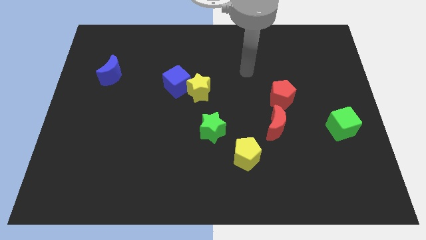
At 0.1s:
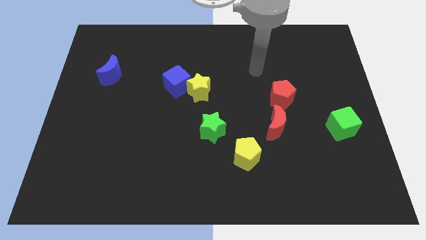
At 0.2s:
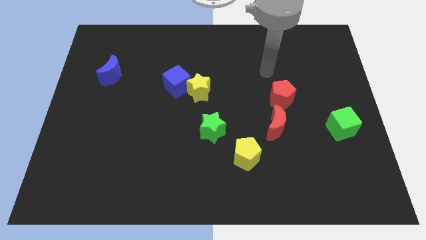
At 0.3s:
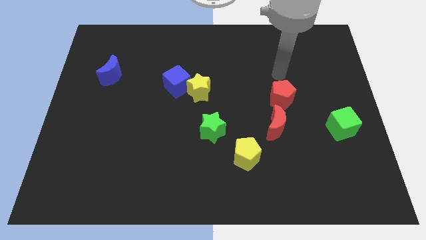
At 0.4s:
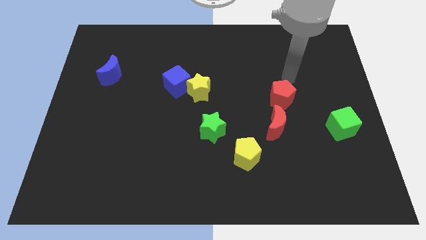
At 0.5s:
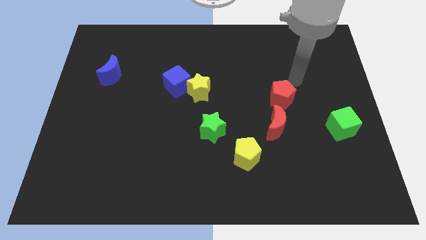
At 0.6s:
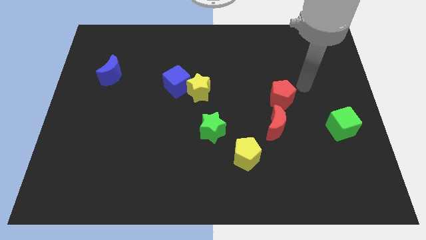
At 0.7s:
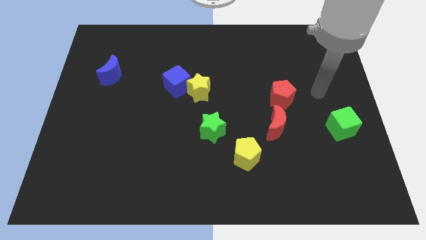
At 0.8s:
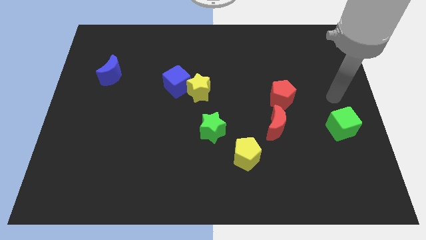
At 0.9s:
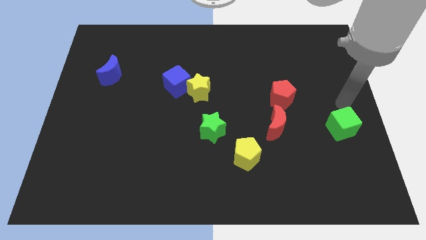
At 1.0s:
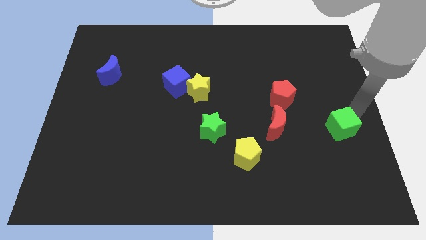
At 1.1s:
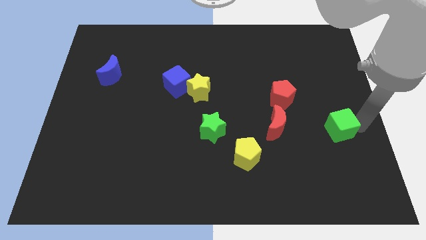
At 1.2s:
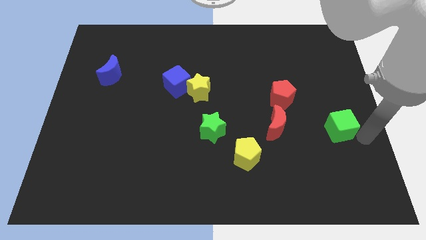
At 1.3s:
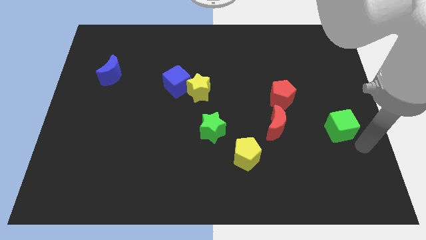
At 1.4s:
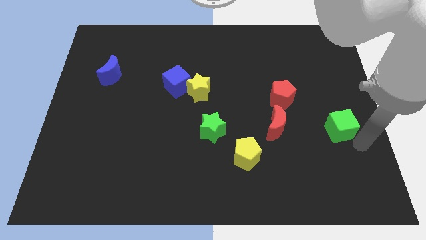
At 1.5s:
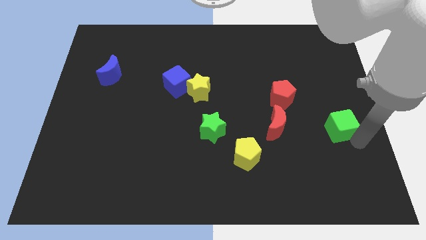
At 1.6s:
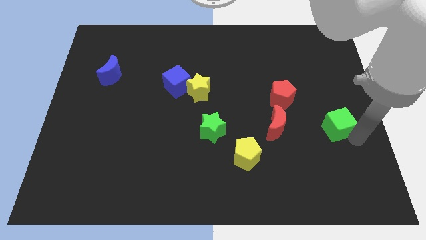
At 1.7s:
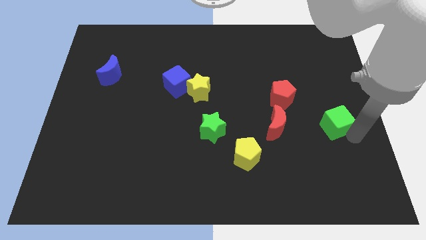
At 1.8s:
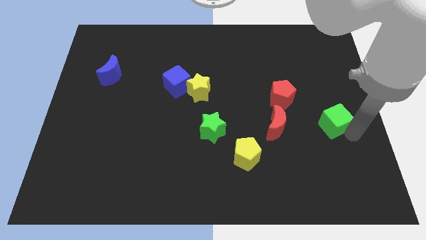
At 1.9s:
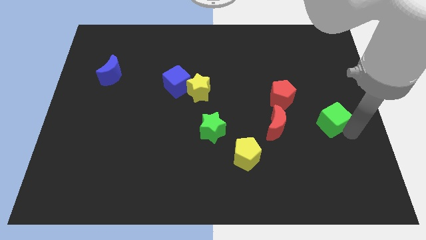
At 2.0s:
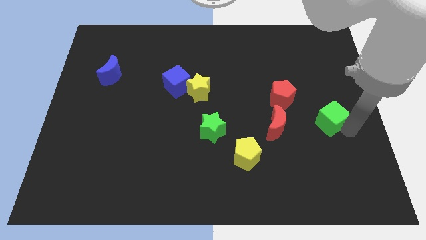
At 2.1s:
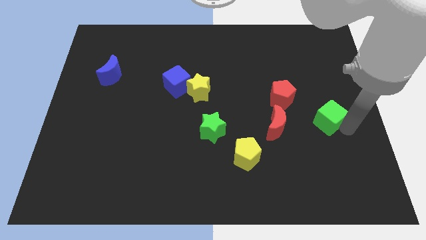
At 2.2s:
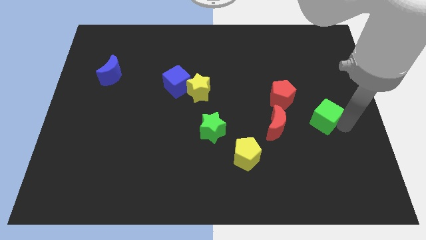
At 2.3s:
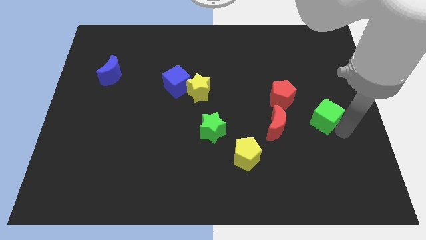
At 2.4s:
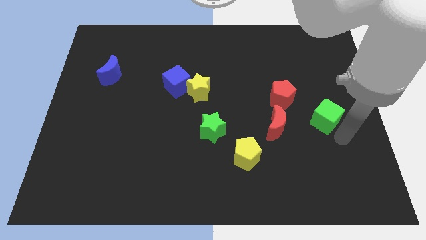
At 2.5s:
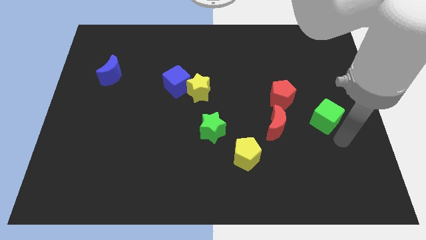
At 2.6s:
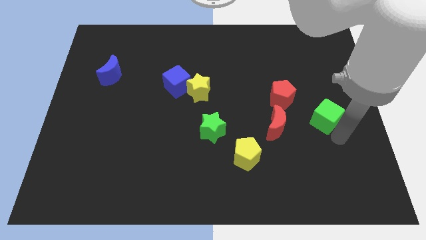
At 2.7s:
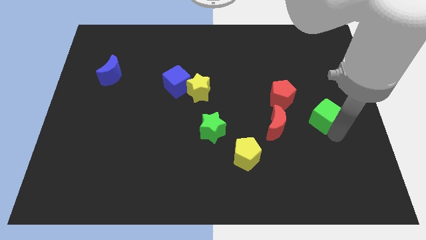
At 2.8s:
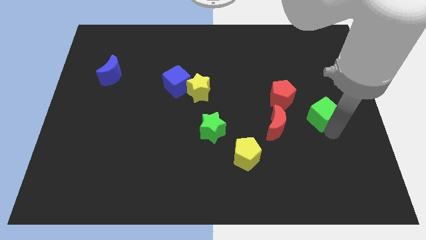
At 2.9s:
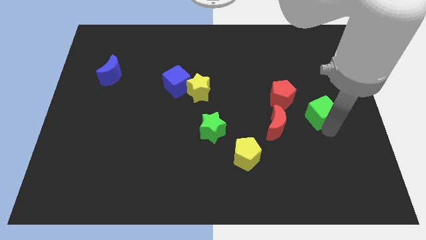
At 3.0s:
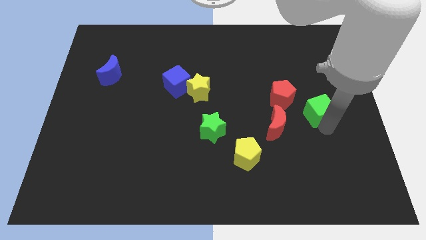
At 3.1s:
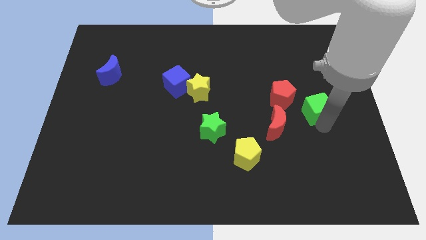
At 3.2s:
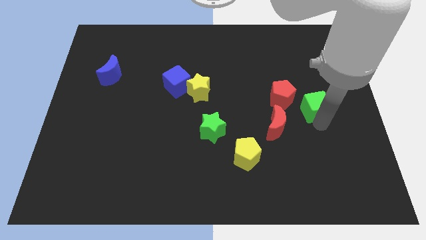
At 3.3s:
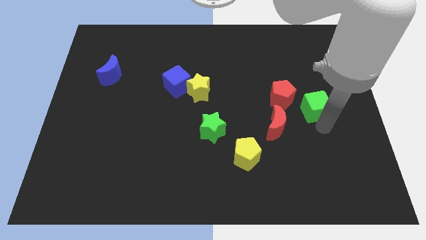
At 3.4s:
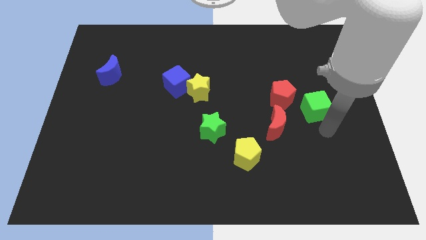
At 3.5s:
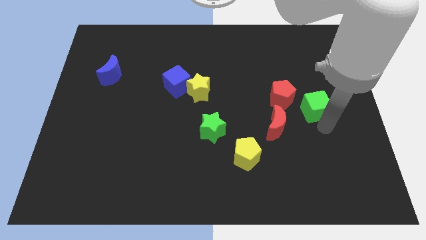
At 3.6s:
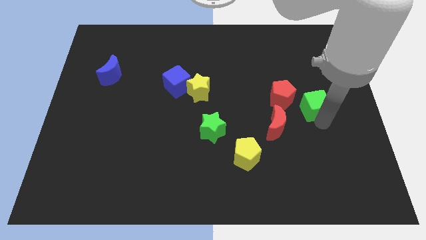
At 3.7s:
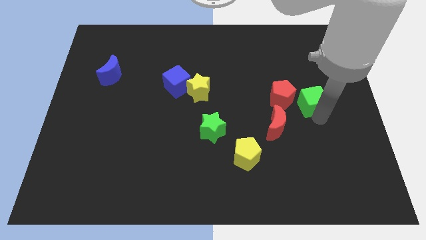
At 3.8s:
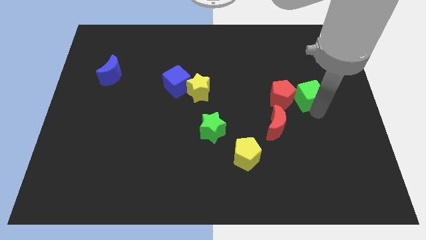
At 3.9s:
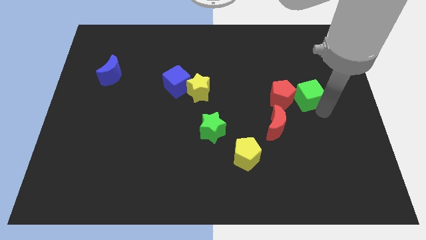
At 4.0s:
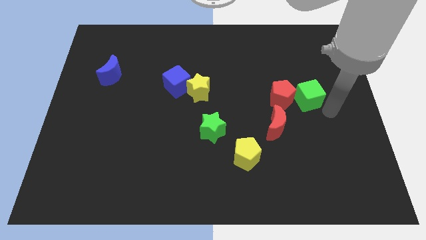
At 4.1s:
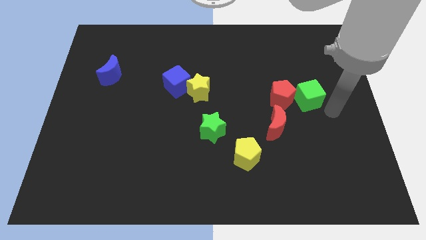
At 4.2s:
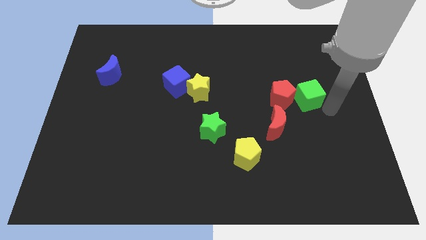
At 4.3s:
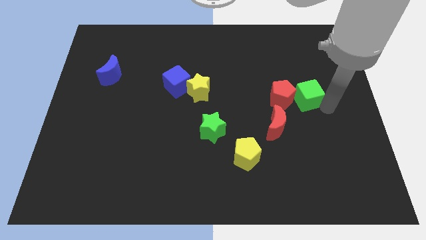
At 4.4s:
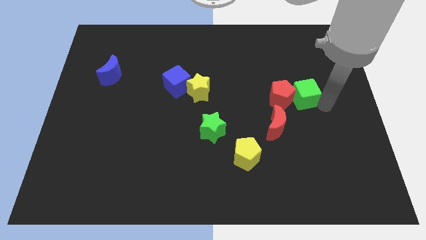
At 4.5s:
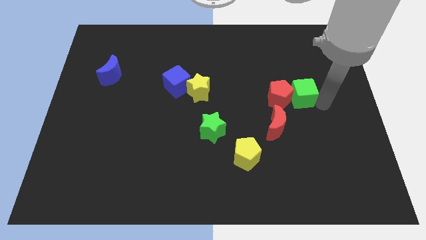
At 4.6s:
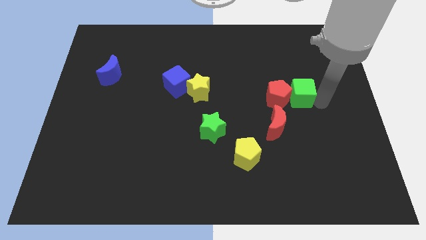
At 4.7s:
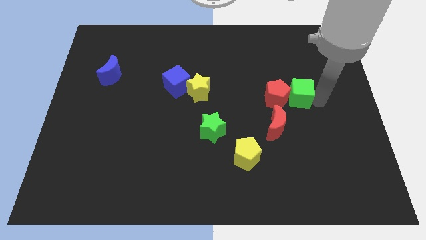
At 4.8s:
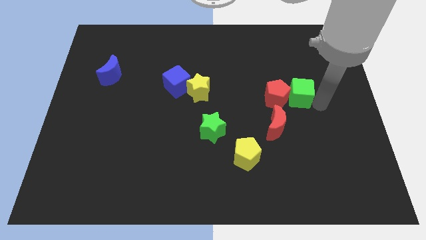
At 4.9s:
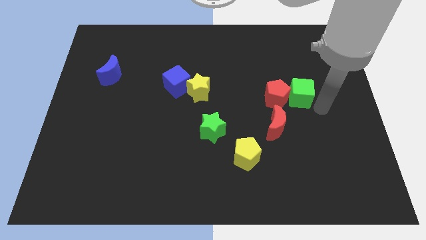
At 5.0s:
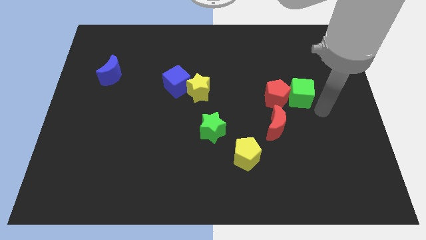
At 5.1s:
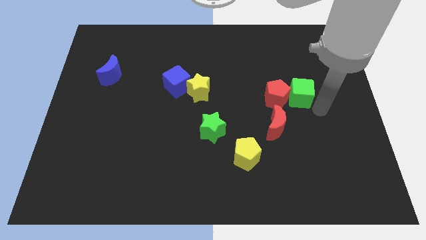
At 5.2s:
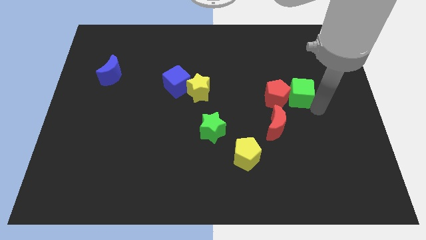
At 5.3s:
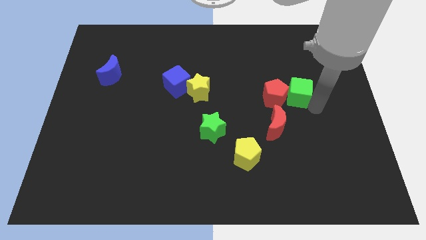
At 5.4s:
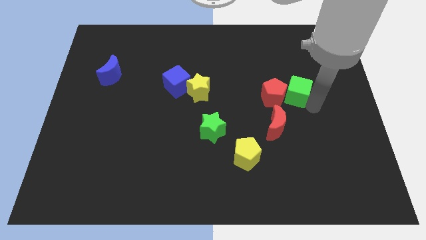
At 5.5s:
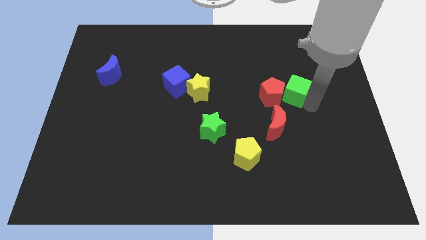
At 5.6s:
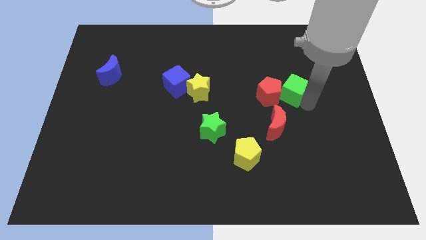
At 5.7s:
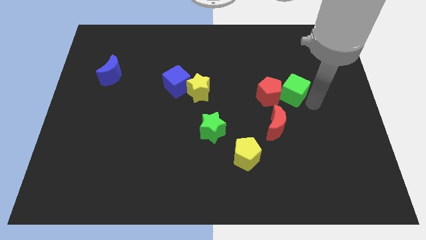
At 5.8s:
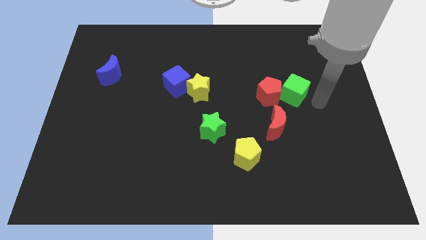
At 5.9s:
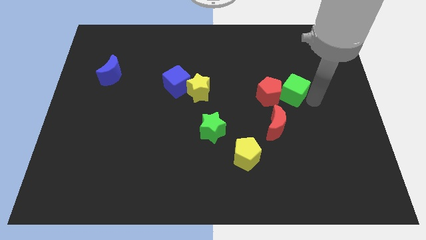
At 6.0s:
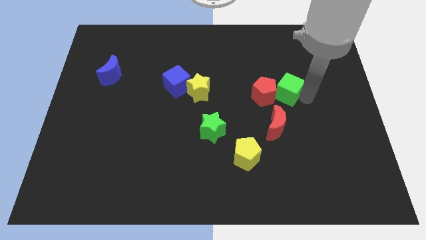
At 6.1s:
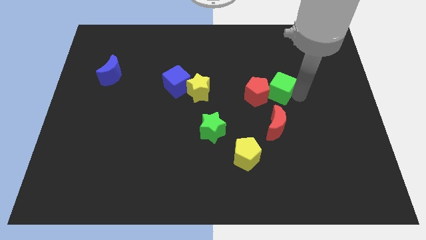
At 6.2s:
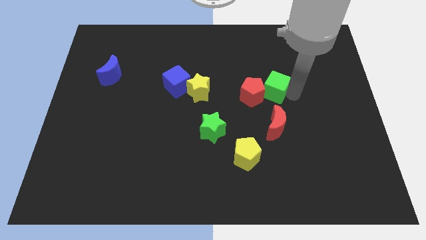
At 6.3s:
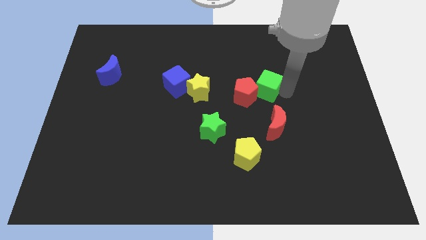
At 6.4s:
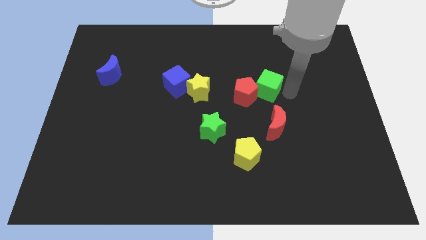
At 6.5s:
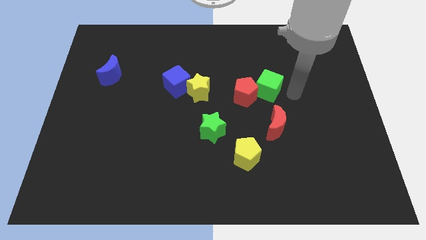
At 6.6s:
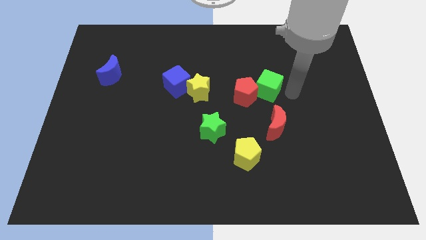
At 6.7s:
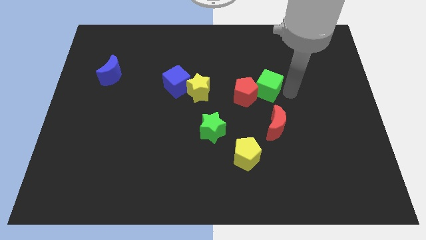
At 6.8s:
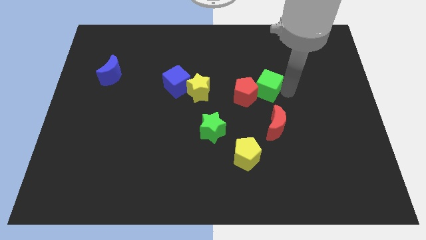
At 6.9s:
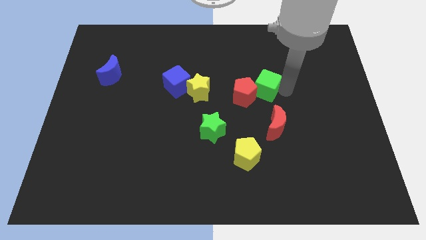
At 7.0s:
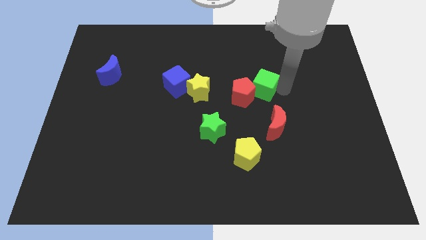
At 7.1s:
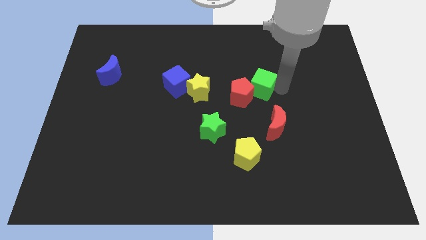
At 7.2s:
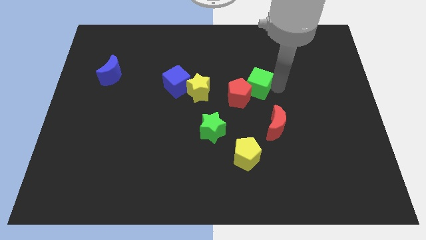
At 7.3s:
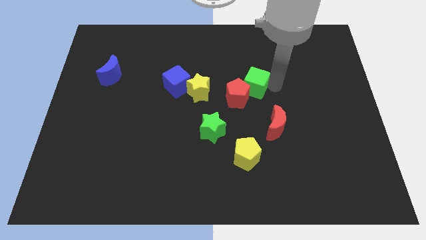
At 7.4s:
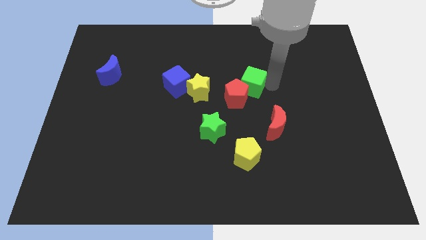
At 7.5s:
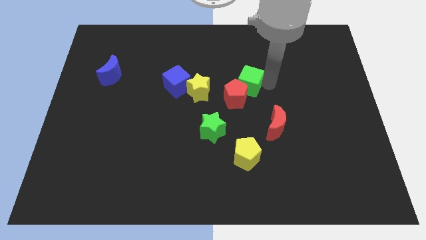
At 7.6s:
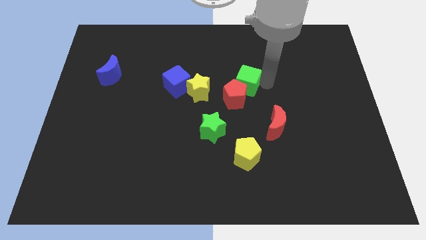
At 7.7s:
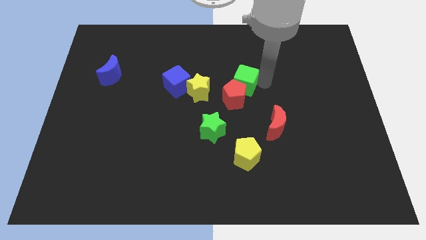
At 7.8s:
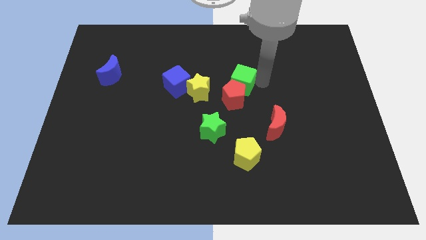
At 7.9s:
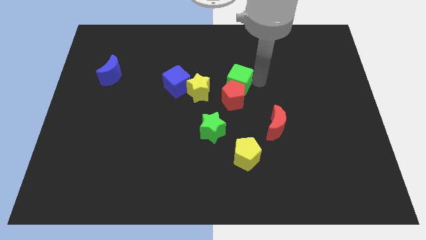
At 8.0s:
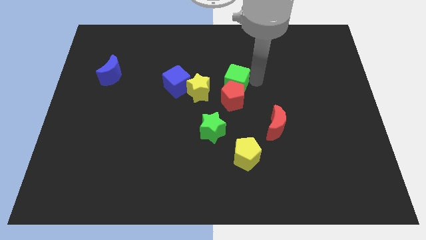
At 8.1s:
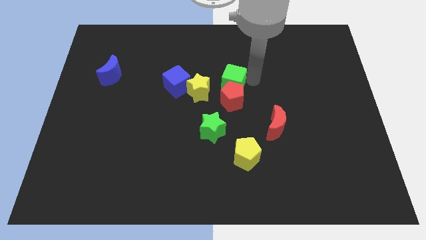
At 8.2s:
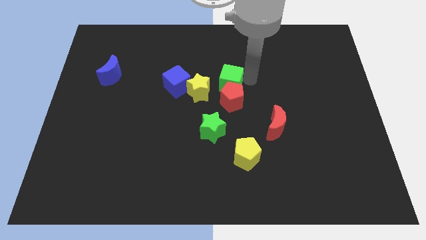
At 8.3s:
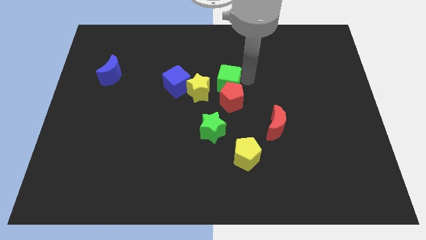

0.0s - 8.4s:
put the green cube to the top side of the green star
